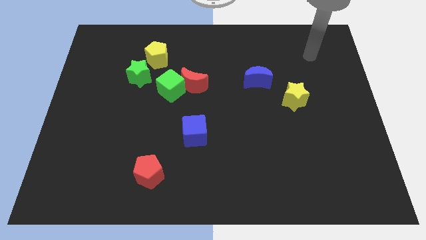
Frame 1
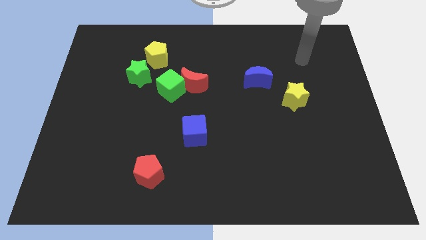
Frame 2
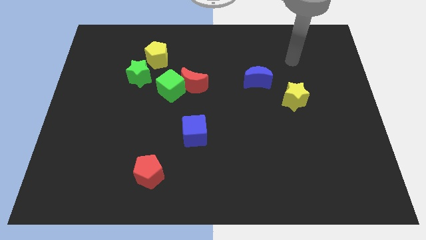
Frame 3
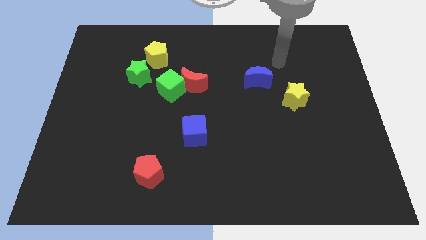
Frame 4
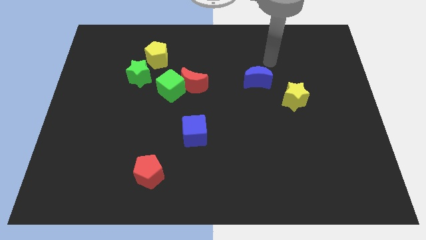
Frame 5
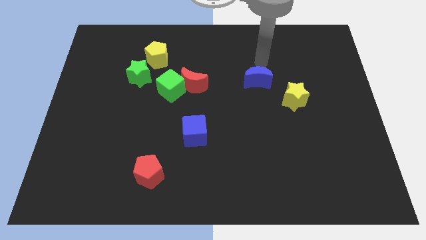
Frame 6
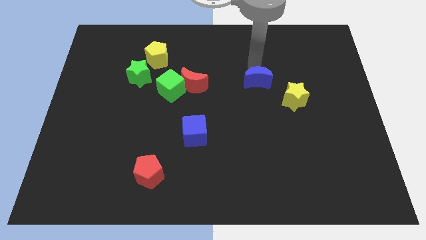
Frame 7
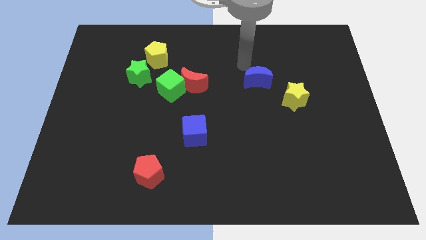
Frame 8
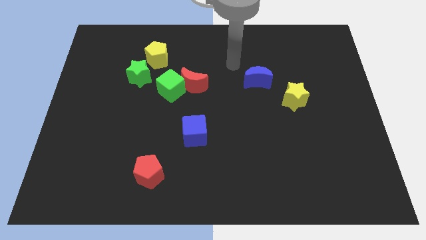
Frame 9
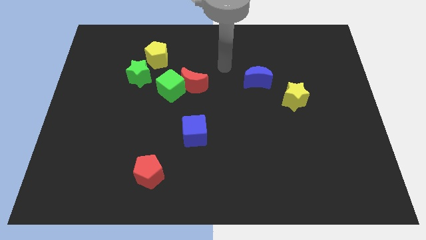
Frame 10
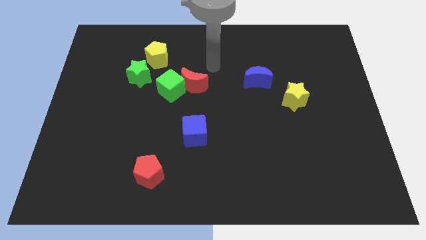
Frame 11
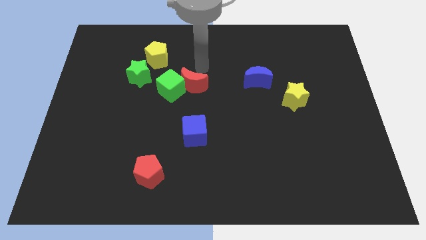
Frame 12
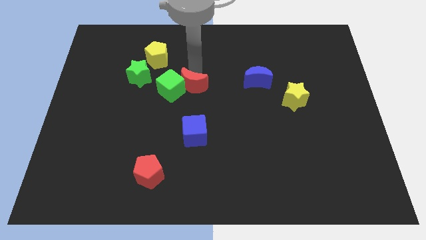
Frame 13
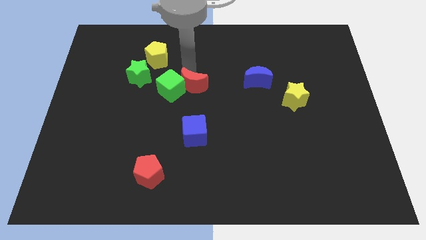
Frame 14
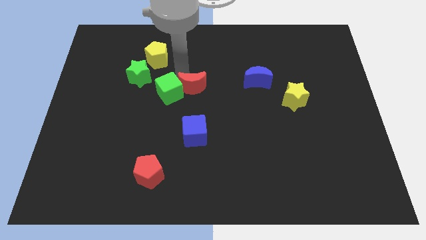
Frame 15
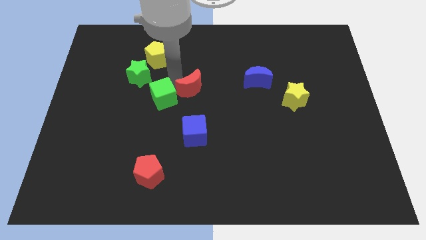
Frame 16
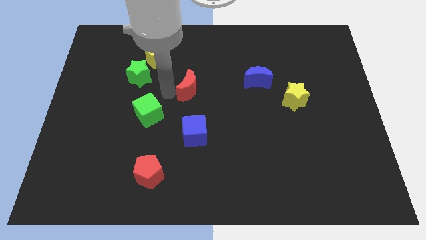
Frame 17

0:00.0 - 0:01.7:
separate the red moon from the green cube

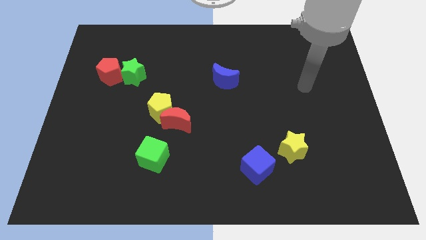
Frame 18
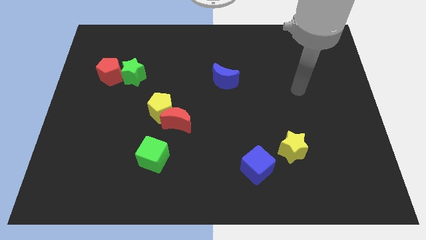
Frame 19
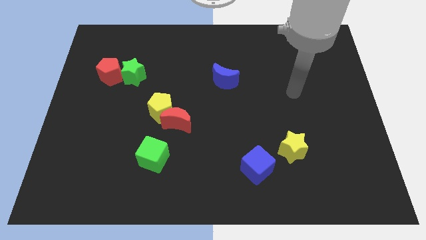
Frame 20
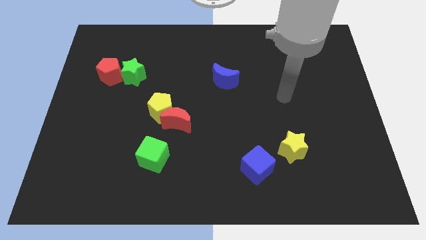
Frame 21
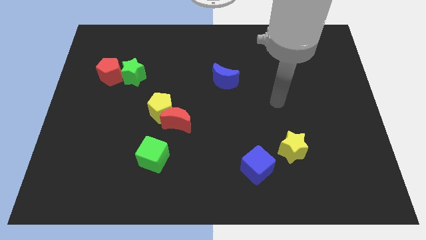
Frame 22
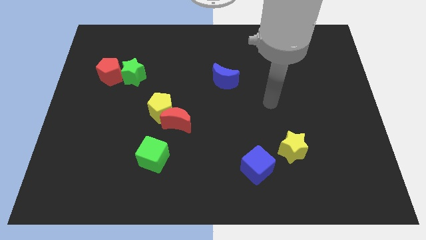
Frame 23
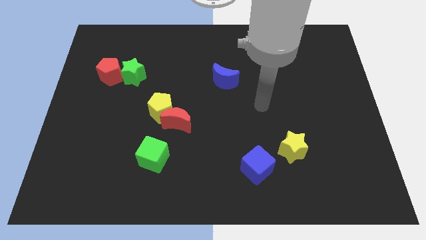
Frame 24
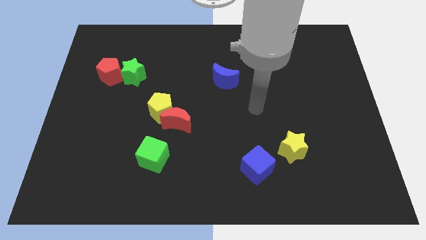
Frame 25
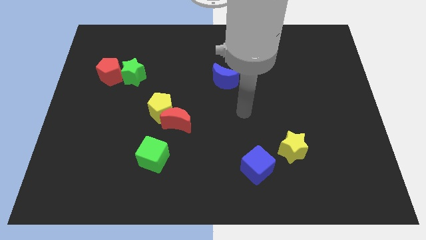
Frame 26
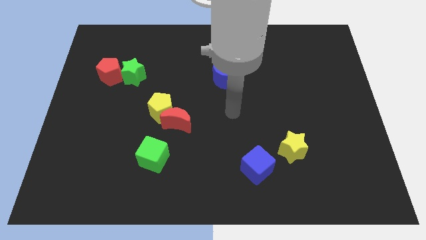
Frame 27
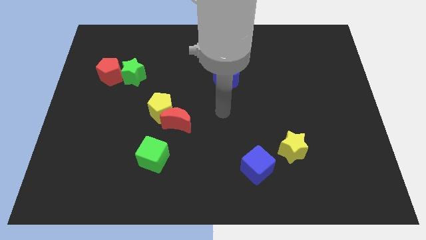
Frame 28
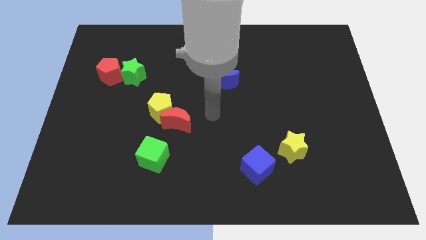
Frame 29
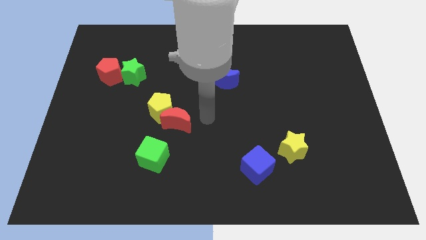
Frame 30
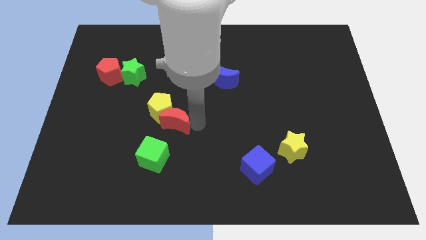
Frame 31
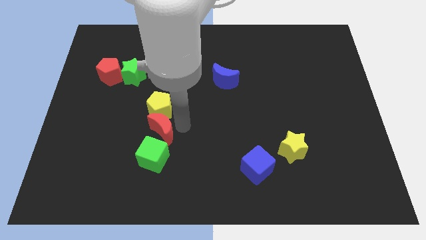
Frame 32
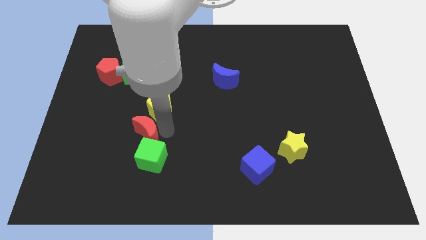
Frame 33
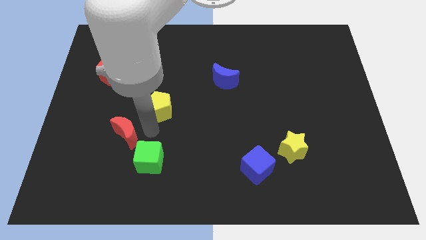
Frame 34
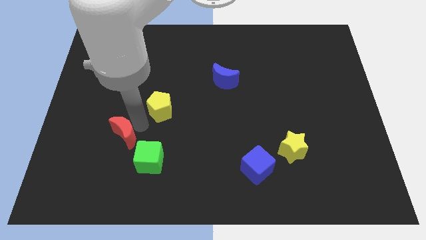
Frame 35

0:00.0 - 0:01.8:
pull the yellow pentagon apart from the red moon

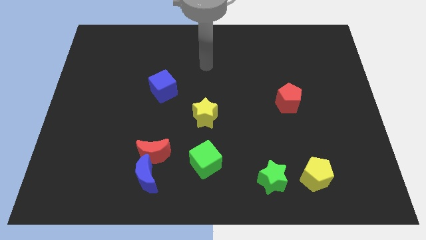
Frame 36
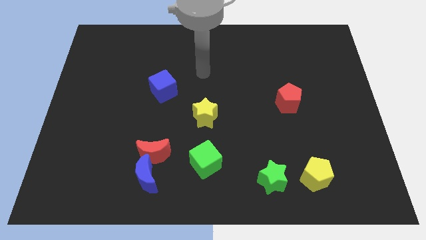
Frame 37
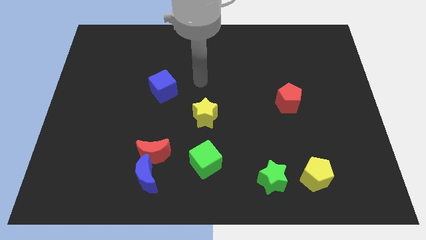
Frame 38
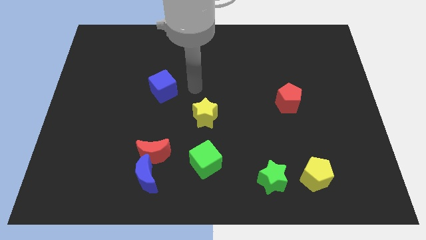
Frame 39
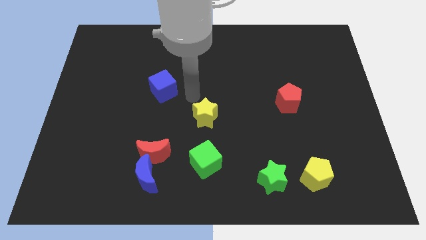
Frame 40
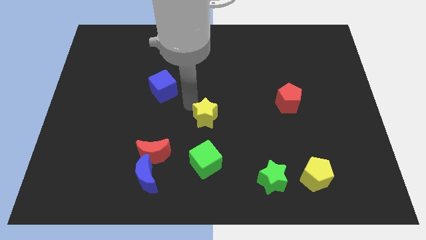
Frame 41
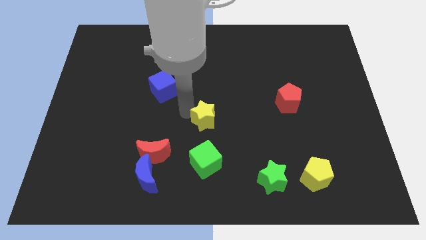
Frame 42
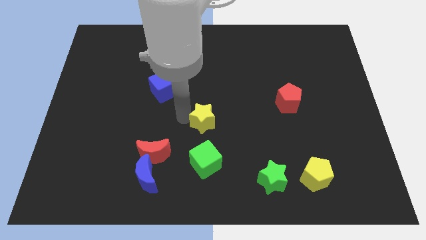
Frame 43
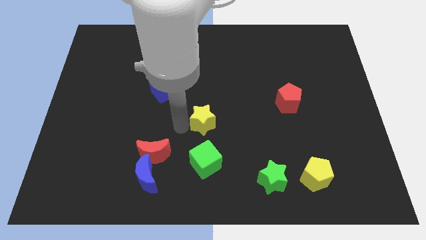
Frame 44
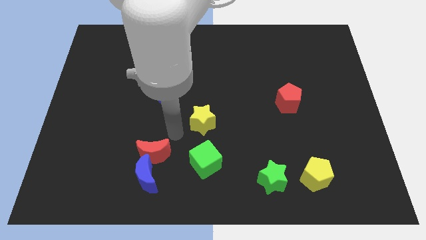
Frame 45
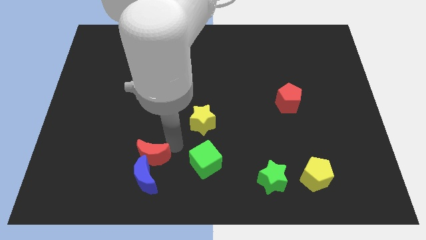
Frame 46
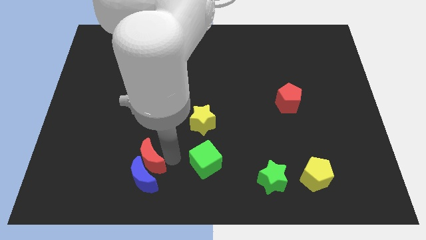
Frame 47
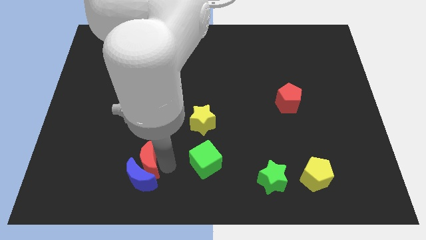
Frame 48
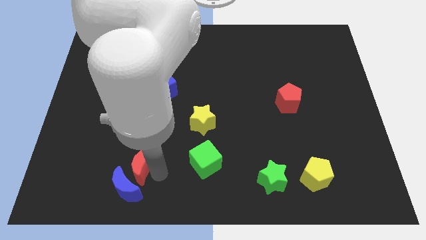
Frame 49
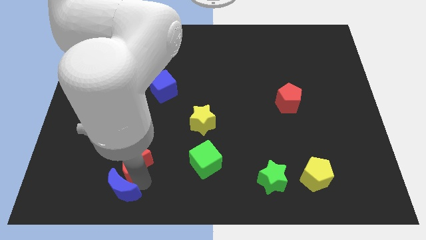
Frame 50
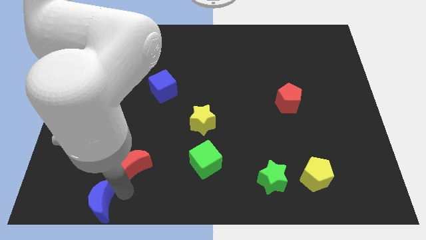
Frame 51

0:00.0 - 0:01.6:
pull the red moon apart from the blue moon

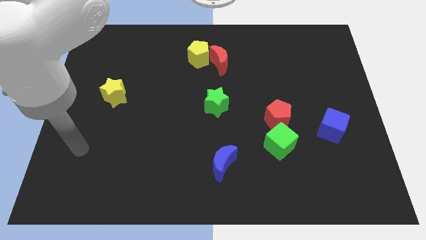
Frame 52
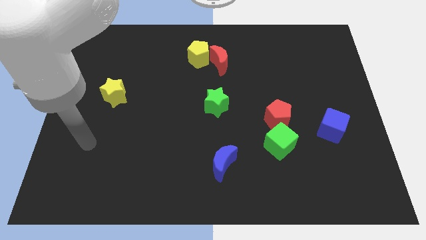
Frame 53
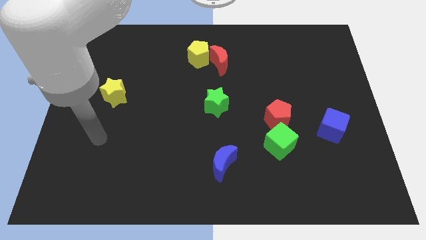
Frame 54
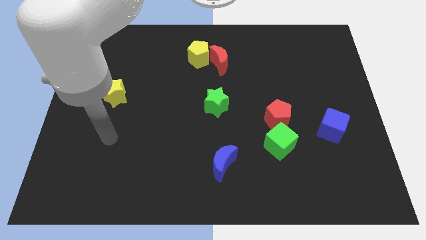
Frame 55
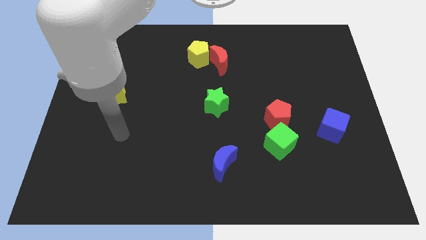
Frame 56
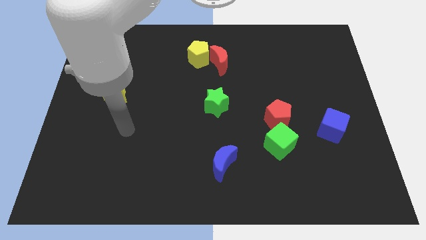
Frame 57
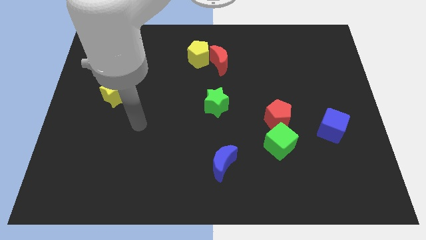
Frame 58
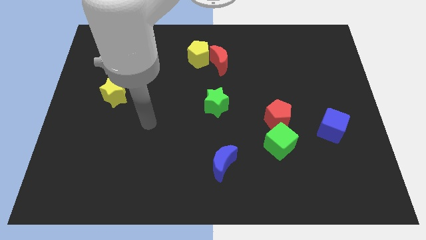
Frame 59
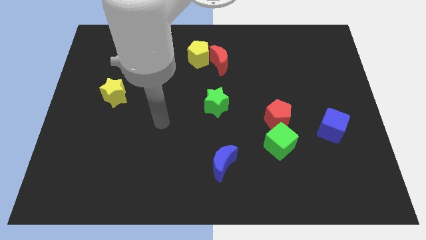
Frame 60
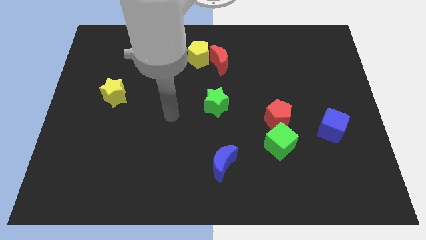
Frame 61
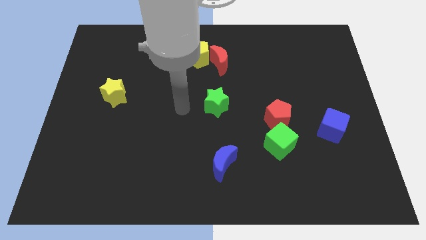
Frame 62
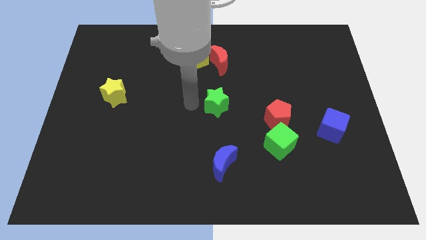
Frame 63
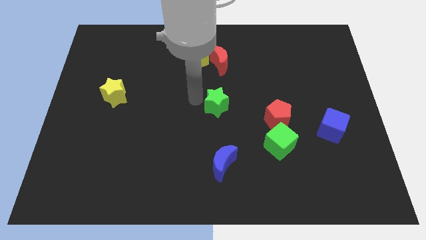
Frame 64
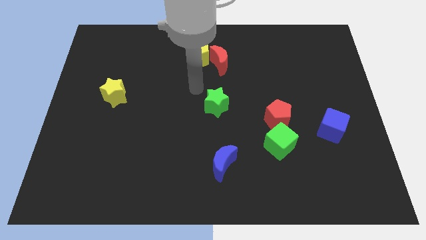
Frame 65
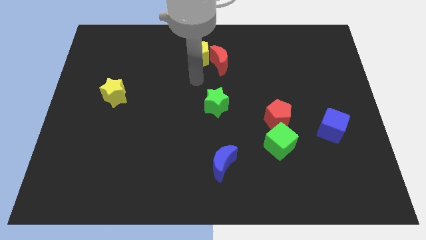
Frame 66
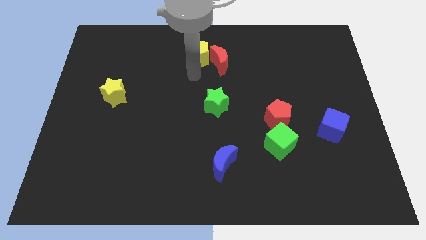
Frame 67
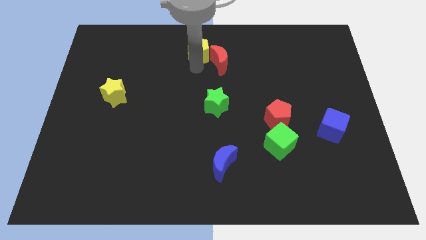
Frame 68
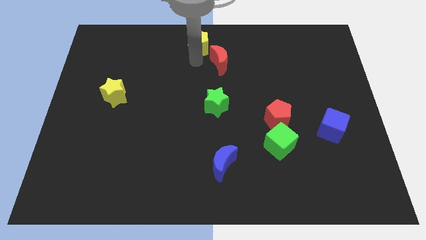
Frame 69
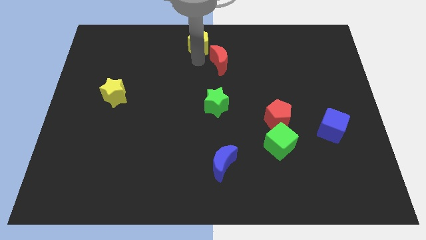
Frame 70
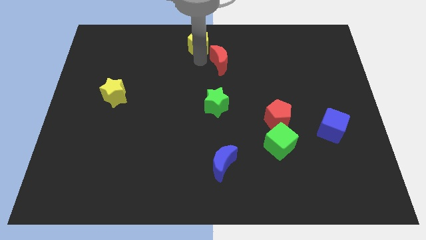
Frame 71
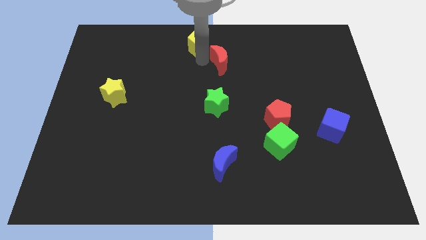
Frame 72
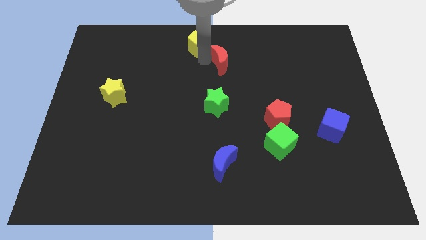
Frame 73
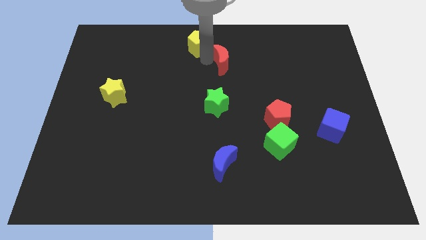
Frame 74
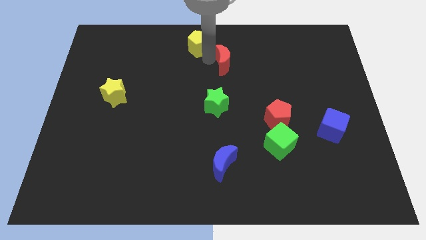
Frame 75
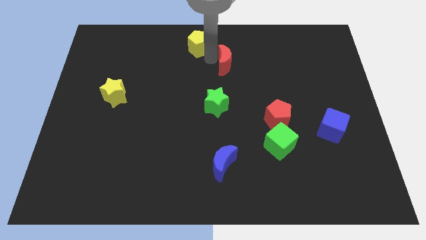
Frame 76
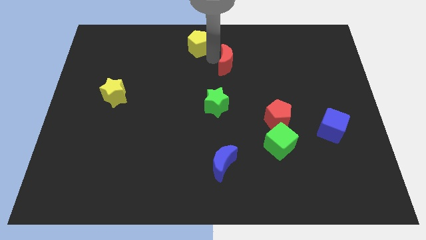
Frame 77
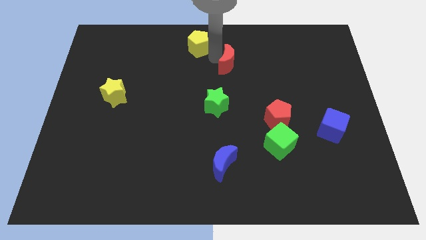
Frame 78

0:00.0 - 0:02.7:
move the red moon away from the yellow pentagon

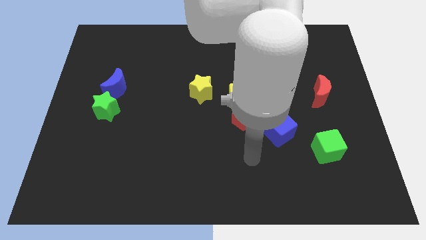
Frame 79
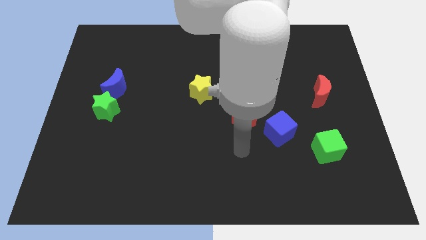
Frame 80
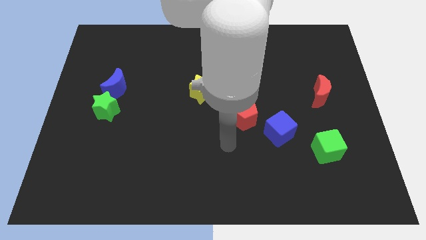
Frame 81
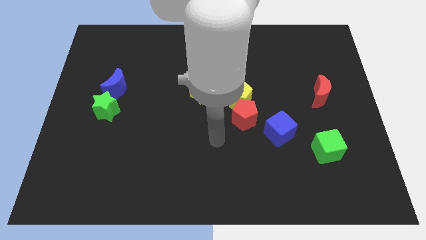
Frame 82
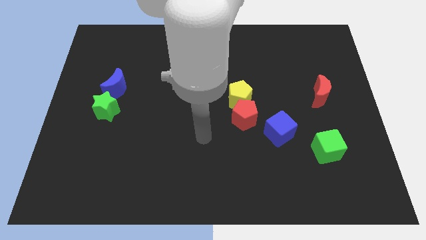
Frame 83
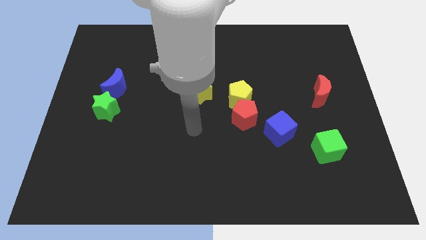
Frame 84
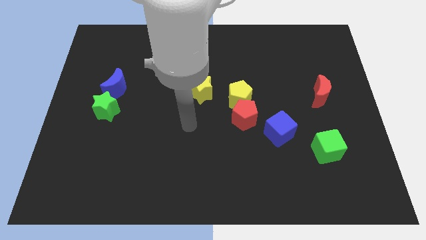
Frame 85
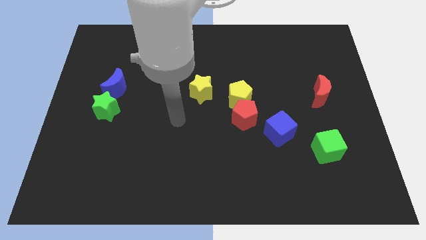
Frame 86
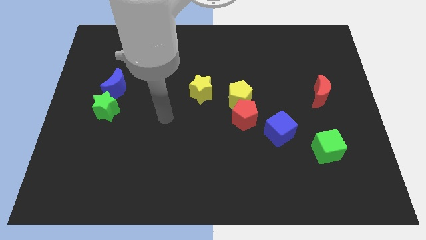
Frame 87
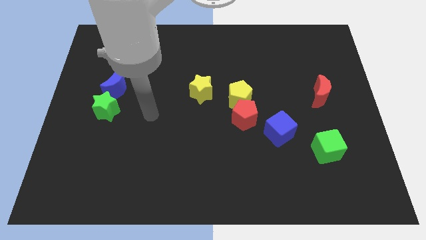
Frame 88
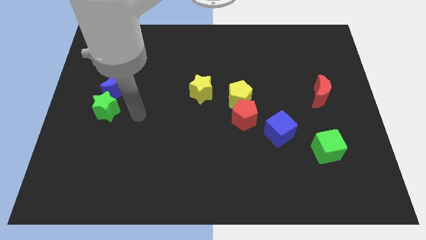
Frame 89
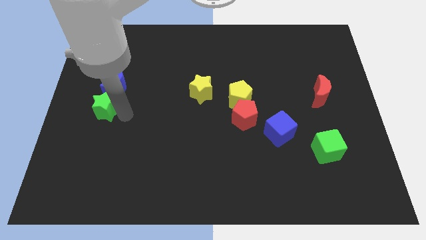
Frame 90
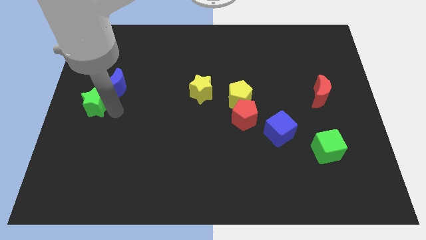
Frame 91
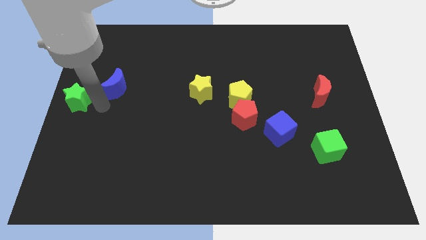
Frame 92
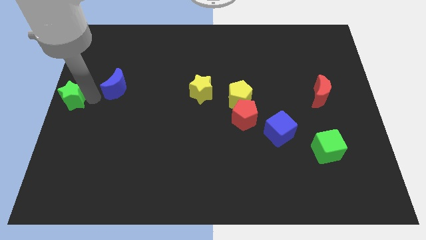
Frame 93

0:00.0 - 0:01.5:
separate the blue moon from the green star
